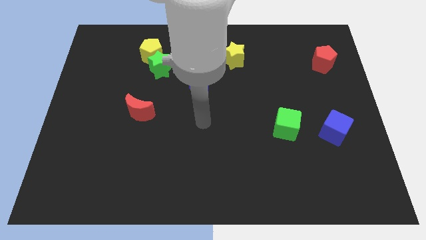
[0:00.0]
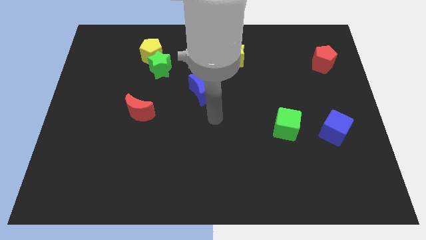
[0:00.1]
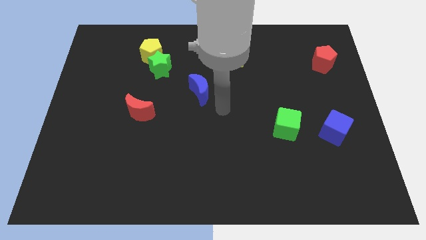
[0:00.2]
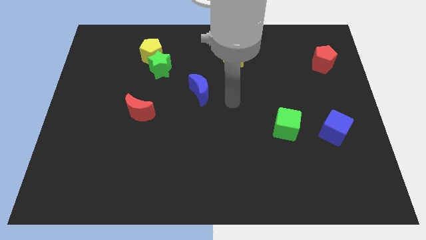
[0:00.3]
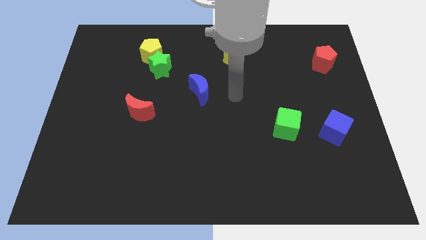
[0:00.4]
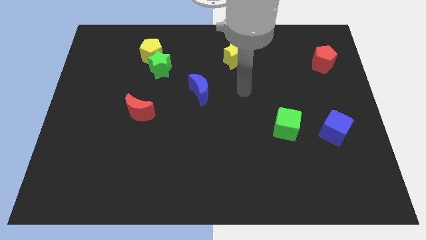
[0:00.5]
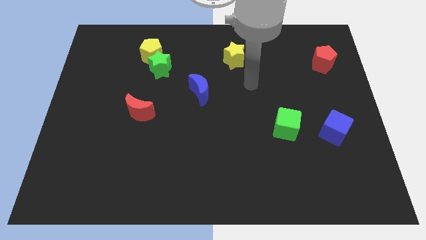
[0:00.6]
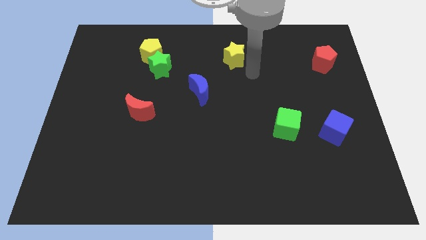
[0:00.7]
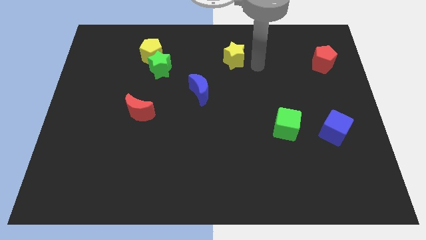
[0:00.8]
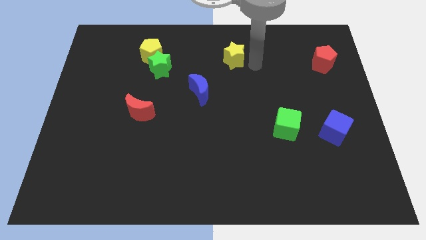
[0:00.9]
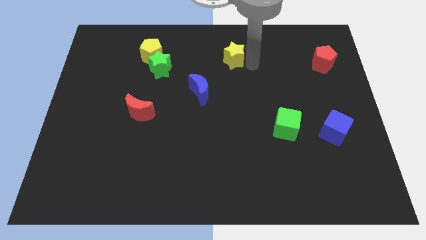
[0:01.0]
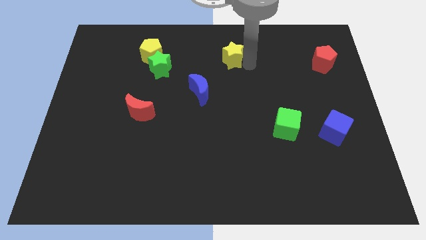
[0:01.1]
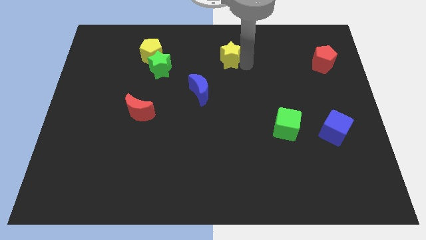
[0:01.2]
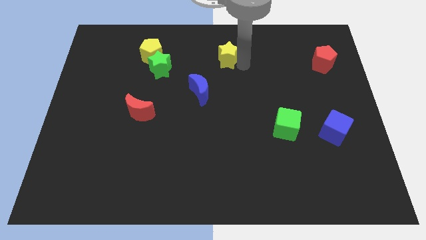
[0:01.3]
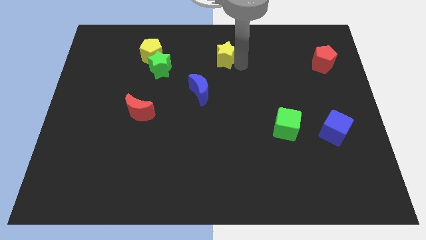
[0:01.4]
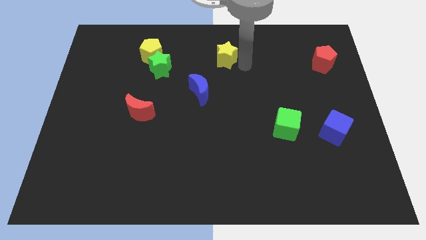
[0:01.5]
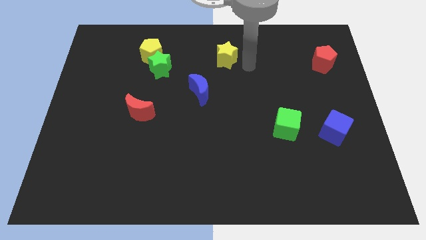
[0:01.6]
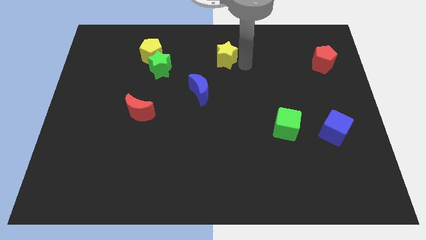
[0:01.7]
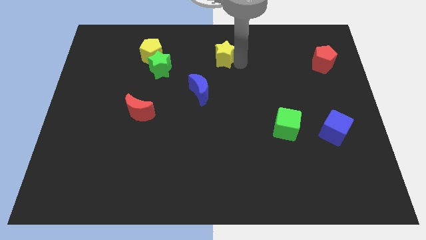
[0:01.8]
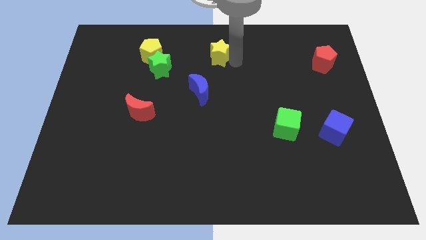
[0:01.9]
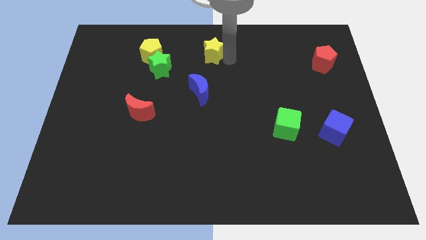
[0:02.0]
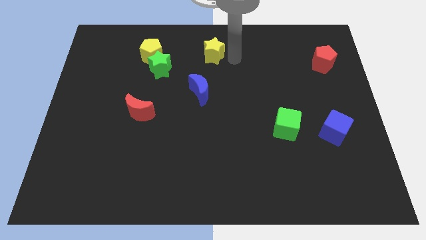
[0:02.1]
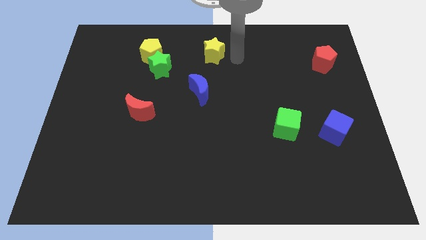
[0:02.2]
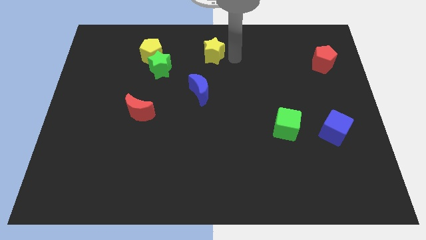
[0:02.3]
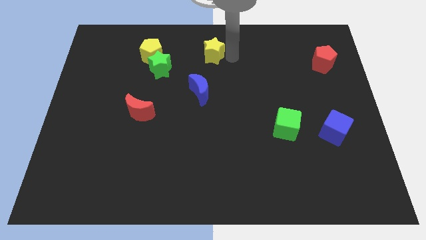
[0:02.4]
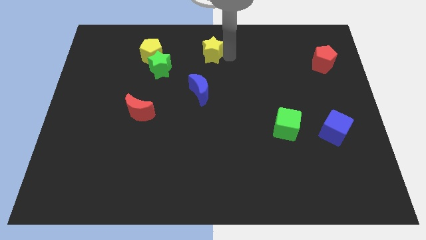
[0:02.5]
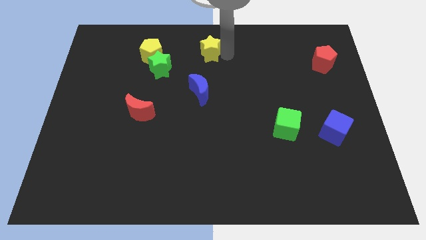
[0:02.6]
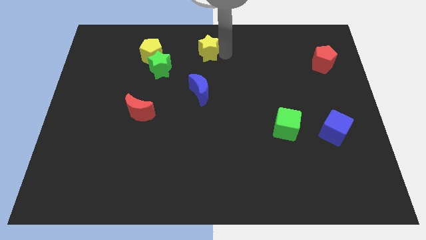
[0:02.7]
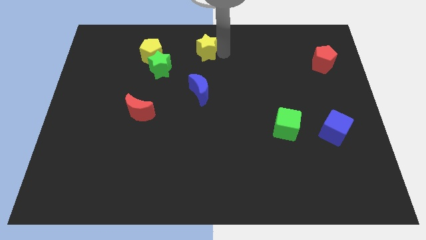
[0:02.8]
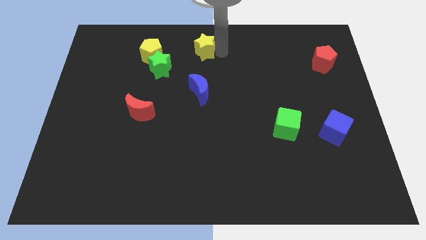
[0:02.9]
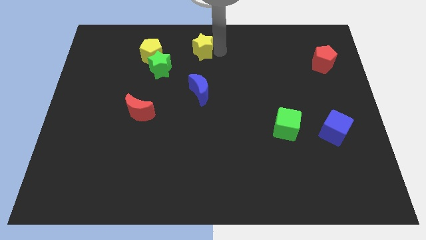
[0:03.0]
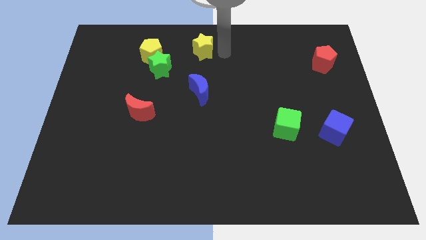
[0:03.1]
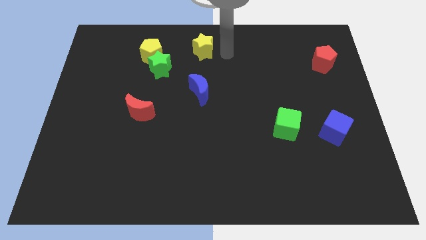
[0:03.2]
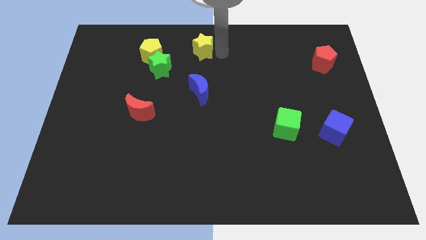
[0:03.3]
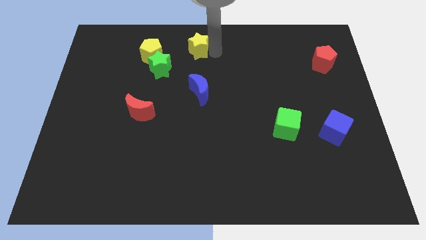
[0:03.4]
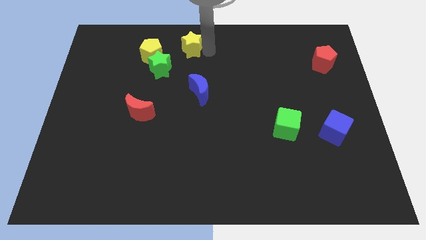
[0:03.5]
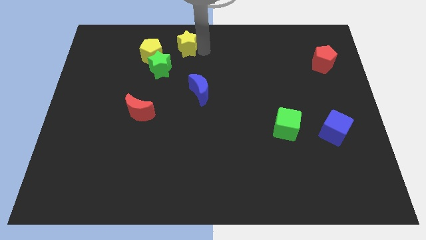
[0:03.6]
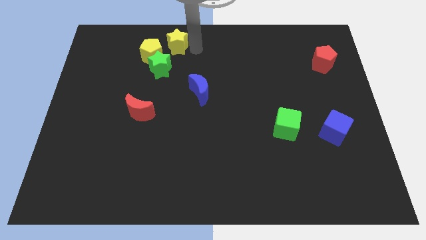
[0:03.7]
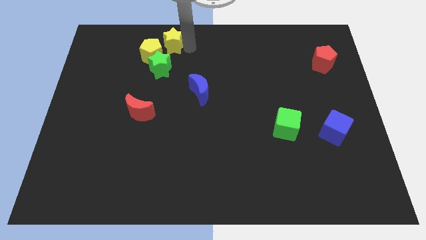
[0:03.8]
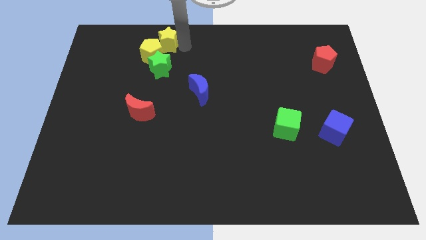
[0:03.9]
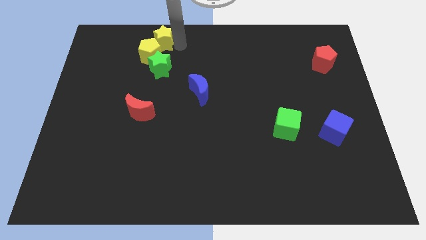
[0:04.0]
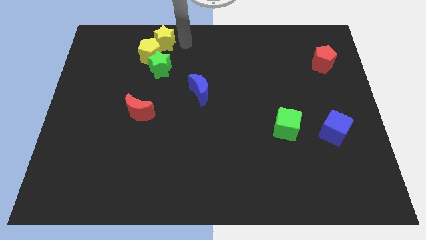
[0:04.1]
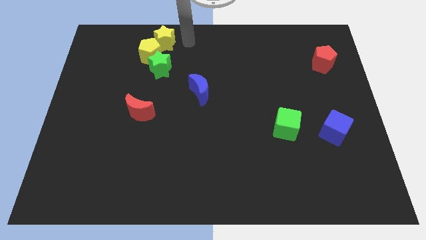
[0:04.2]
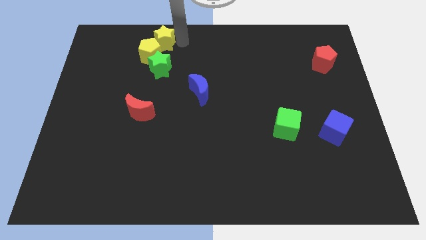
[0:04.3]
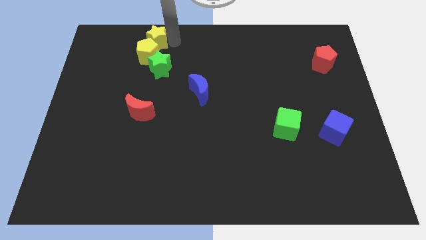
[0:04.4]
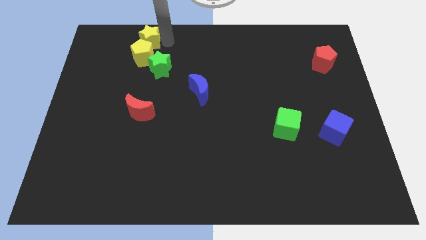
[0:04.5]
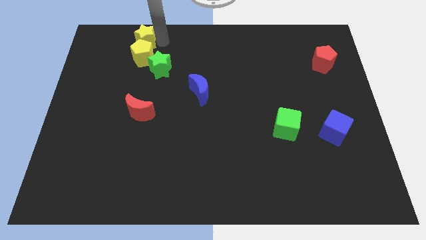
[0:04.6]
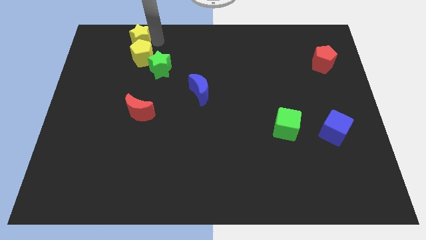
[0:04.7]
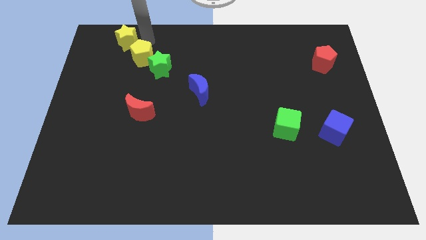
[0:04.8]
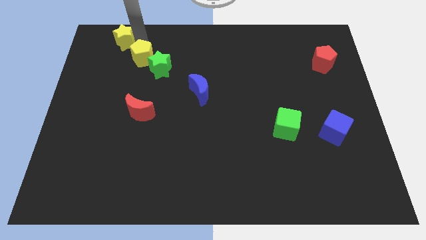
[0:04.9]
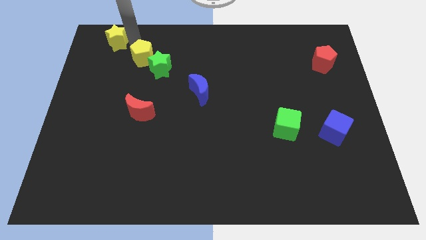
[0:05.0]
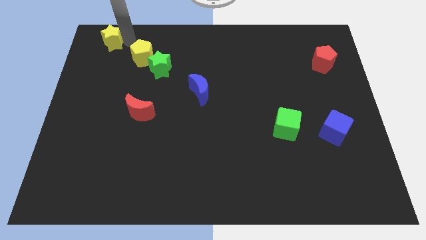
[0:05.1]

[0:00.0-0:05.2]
push the yellow star to the upper left corner

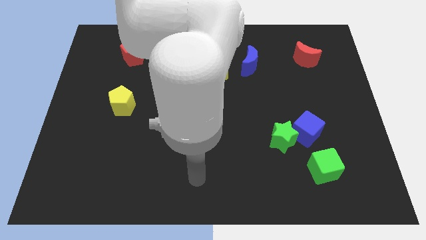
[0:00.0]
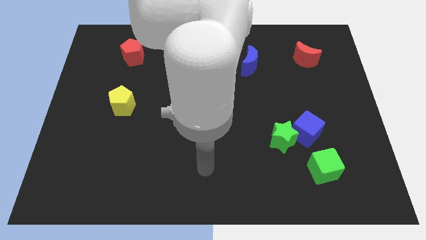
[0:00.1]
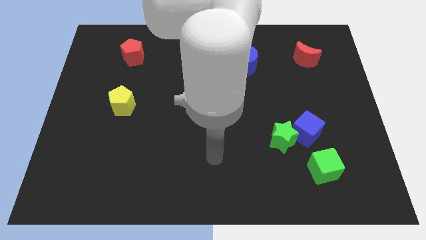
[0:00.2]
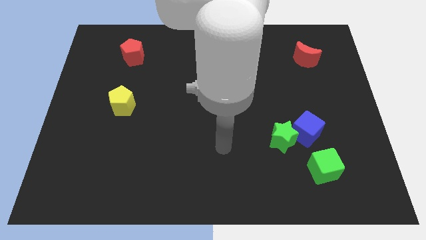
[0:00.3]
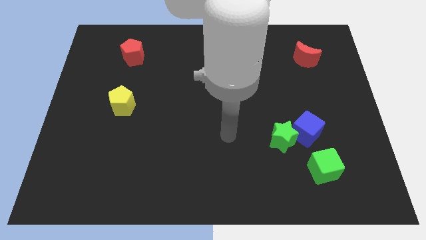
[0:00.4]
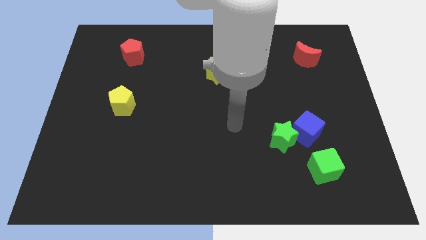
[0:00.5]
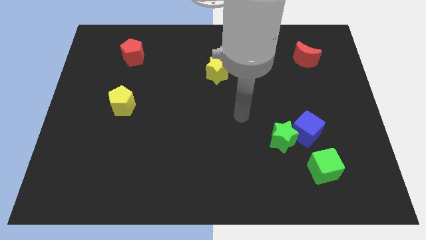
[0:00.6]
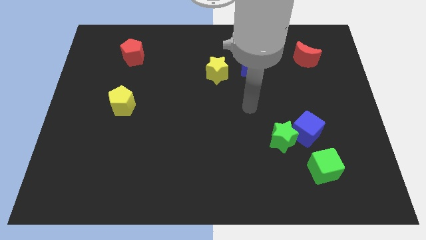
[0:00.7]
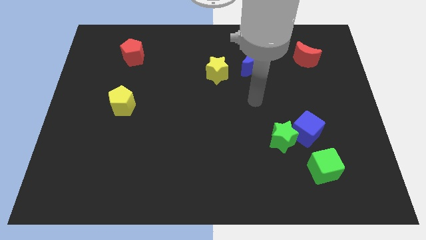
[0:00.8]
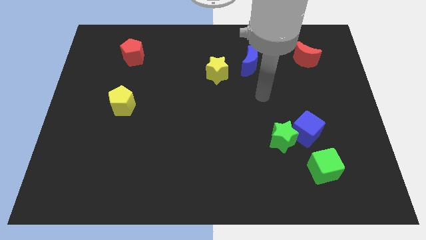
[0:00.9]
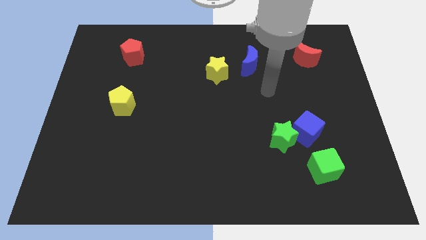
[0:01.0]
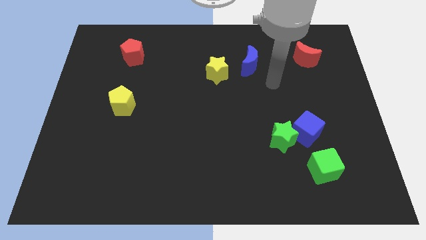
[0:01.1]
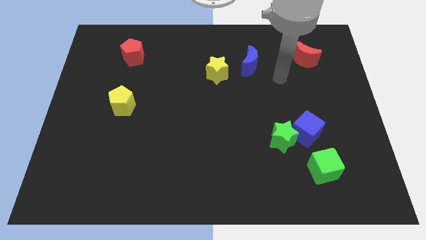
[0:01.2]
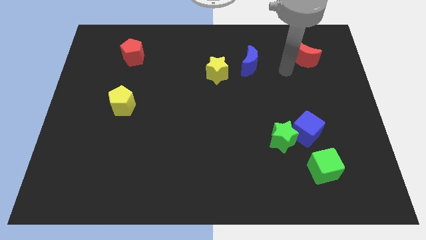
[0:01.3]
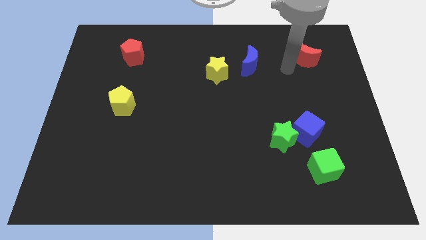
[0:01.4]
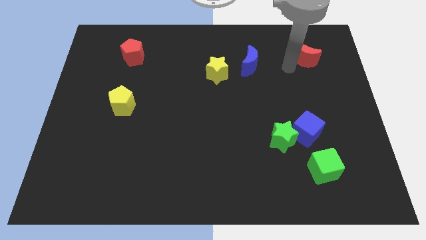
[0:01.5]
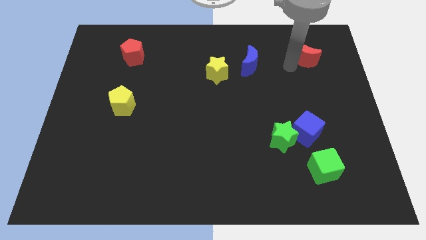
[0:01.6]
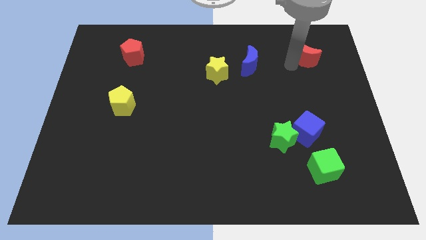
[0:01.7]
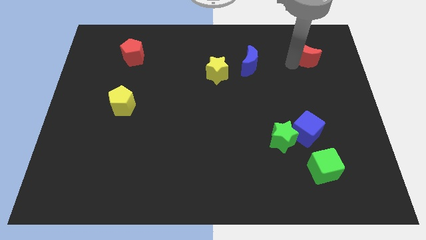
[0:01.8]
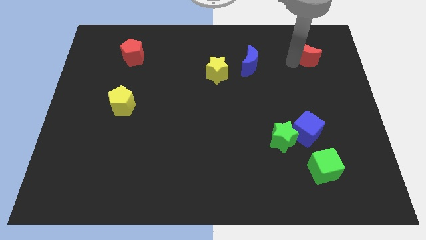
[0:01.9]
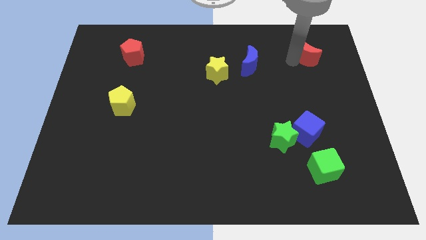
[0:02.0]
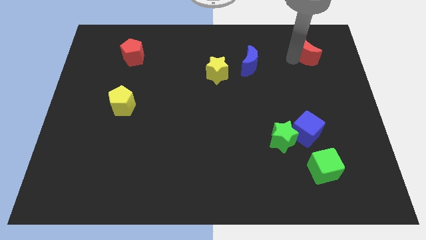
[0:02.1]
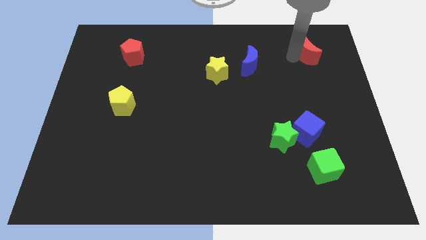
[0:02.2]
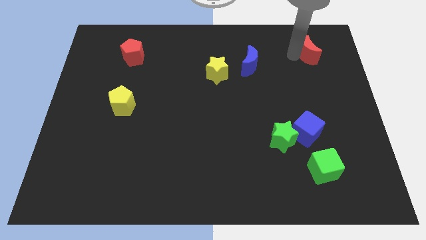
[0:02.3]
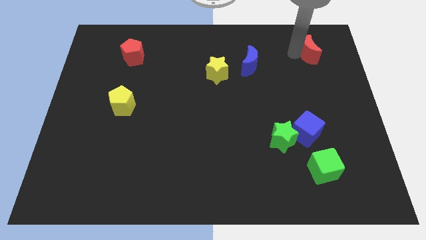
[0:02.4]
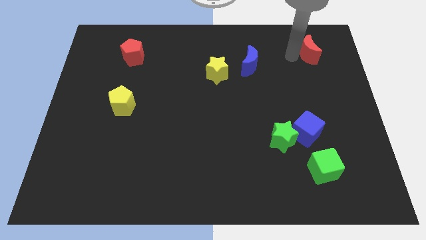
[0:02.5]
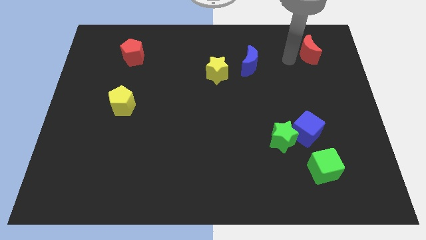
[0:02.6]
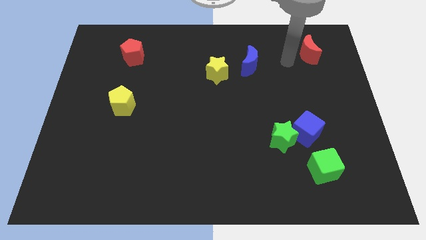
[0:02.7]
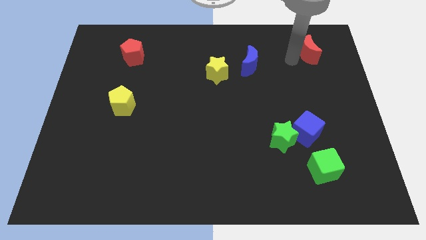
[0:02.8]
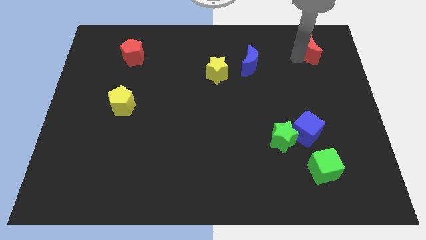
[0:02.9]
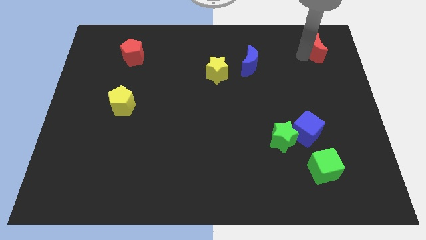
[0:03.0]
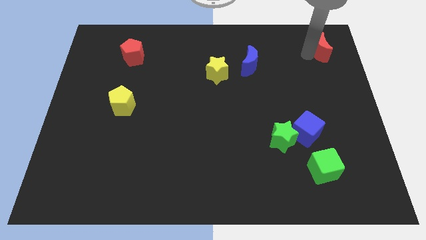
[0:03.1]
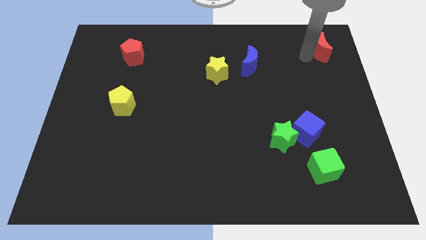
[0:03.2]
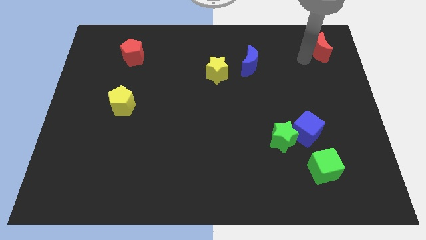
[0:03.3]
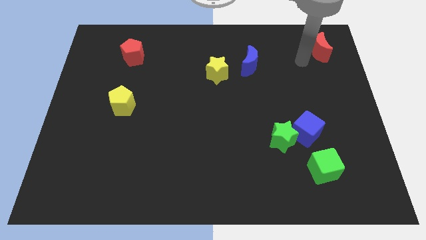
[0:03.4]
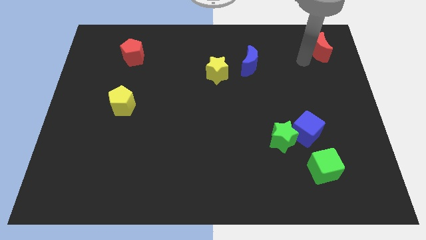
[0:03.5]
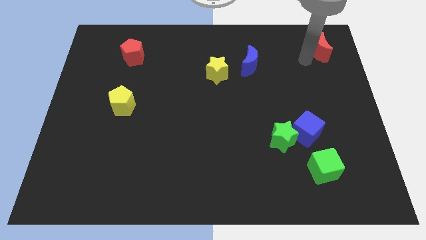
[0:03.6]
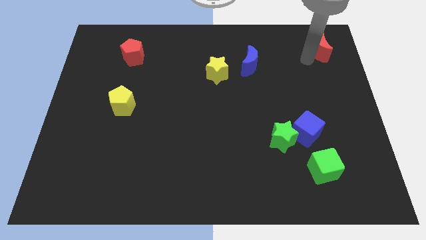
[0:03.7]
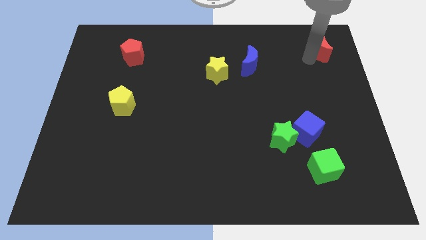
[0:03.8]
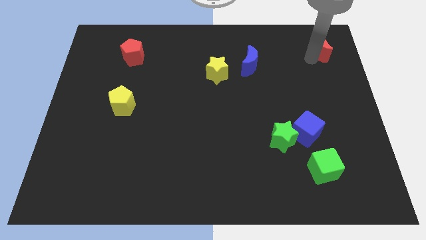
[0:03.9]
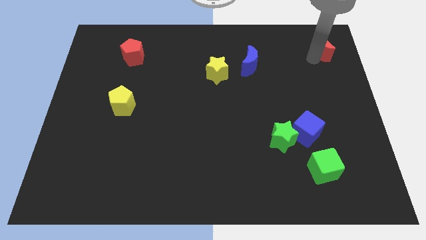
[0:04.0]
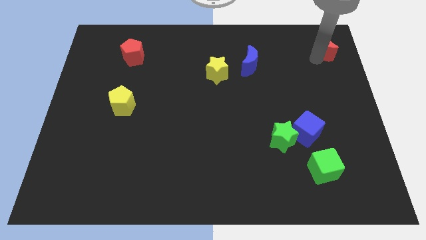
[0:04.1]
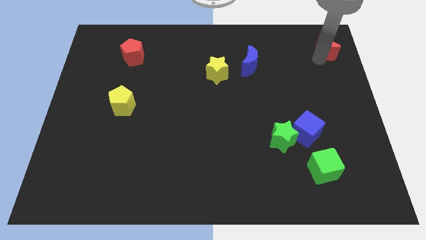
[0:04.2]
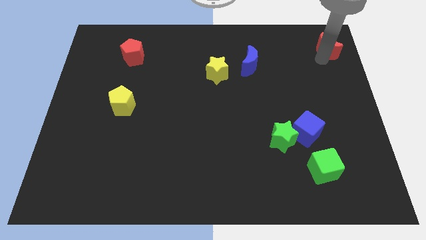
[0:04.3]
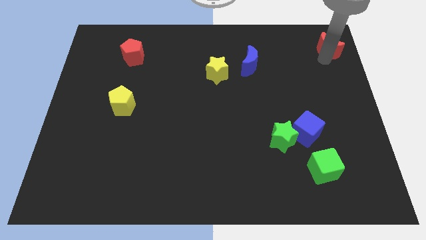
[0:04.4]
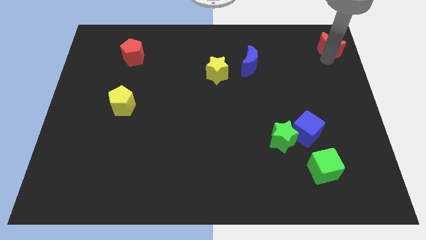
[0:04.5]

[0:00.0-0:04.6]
move the red moon to the top right of the board
